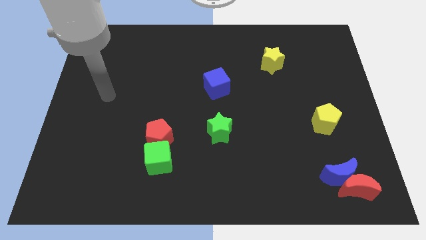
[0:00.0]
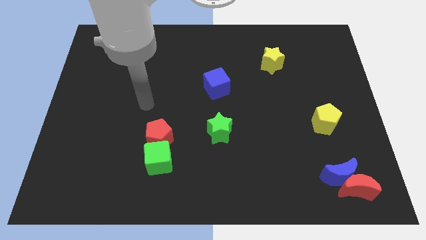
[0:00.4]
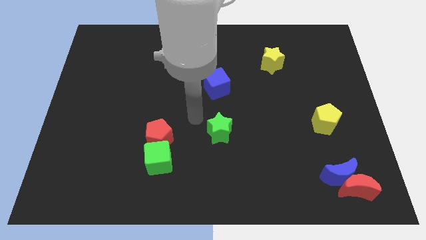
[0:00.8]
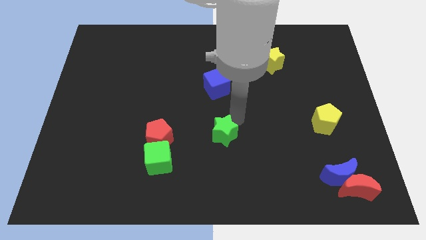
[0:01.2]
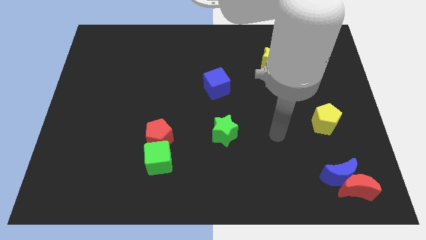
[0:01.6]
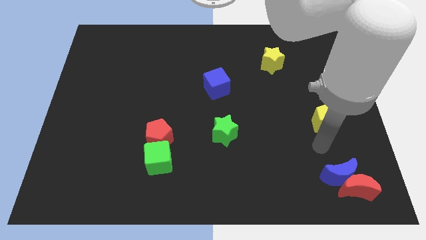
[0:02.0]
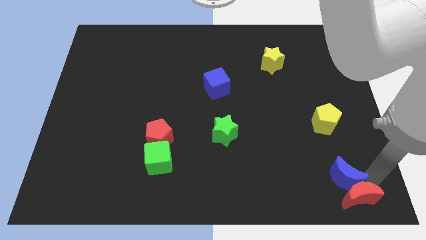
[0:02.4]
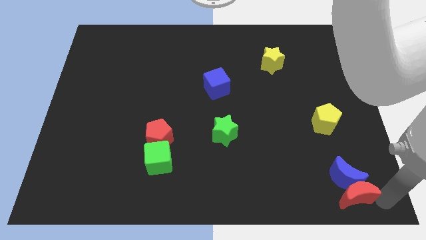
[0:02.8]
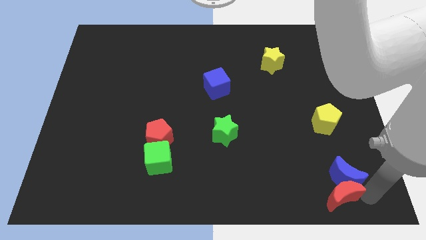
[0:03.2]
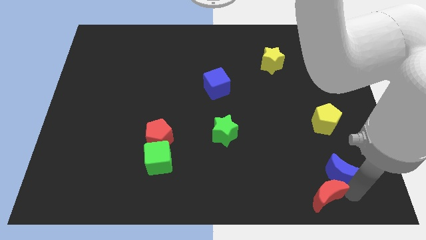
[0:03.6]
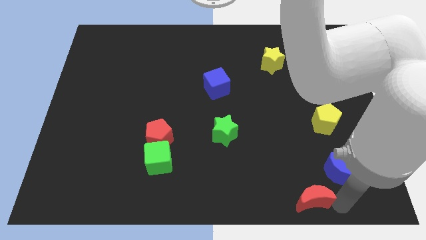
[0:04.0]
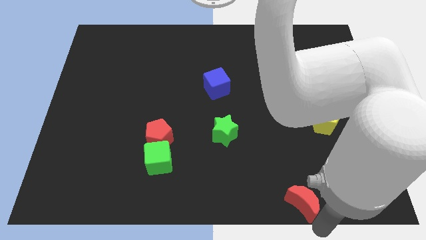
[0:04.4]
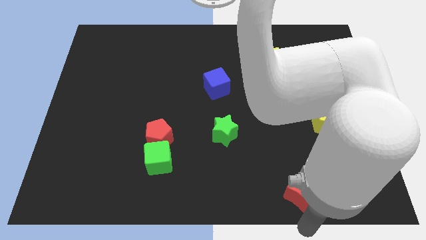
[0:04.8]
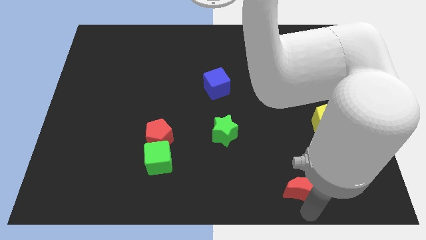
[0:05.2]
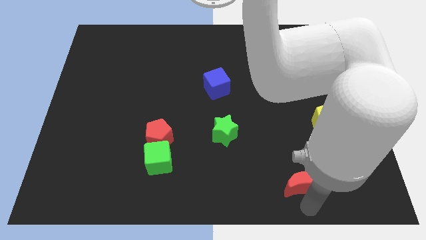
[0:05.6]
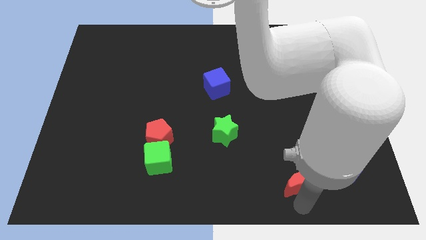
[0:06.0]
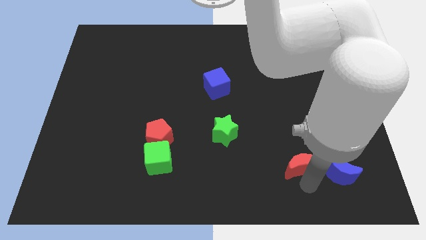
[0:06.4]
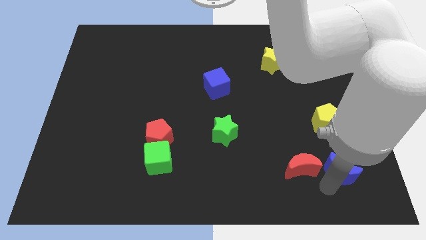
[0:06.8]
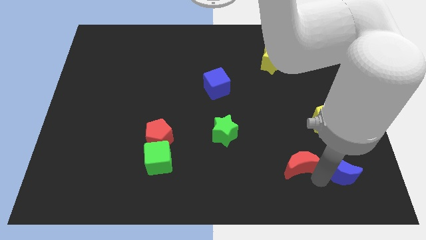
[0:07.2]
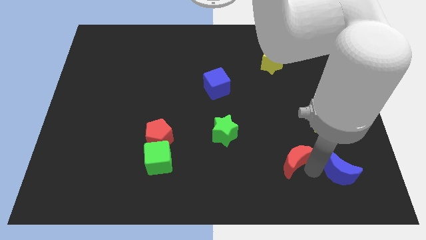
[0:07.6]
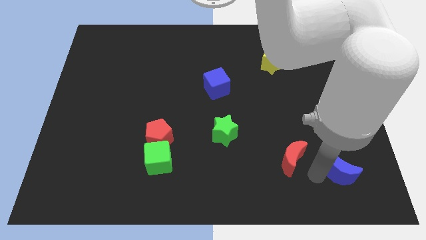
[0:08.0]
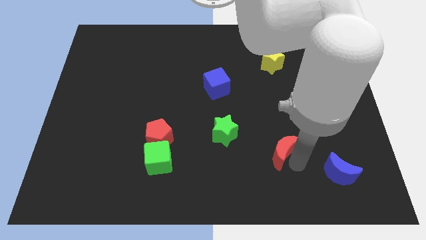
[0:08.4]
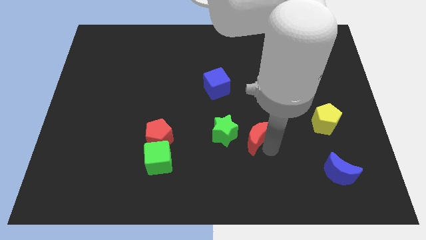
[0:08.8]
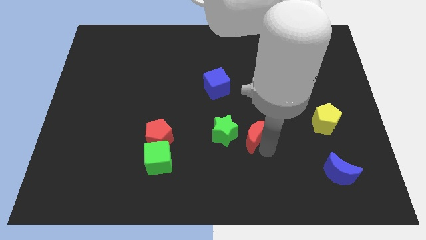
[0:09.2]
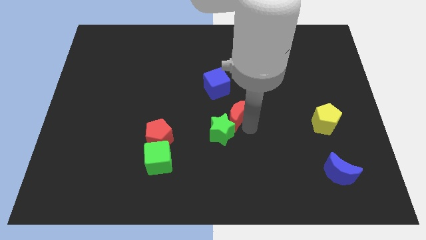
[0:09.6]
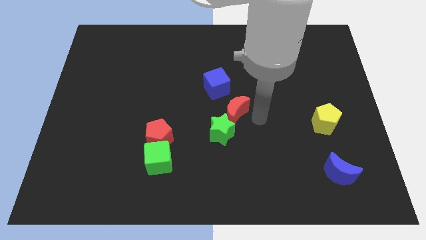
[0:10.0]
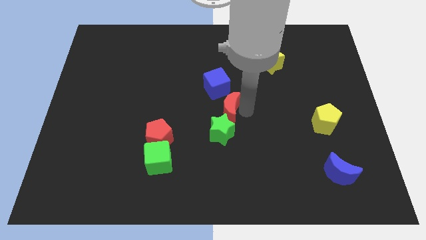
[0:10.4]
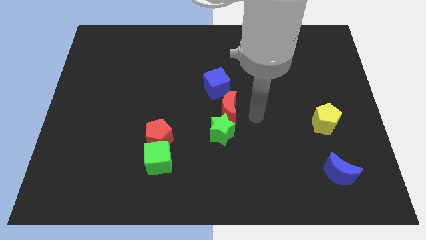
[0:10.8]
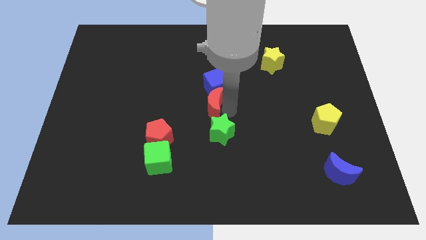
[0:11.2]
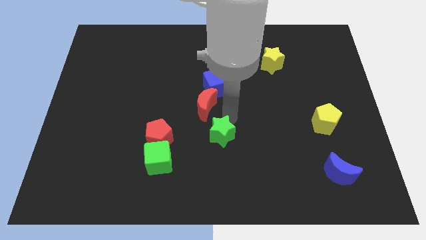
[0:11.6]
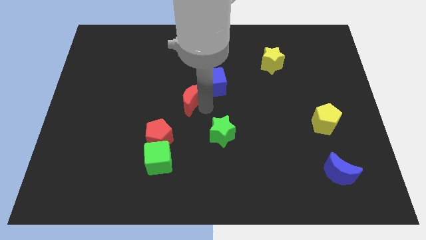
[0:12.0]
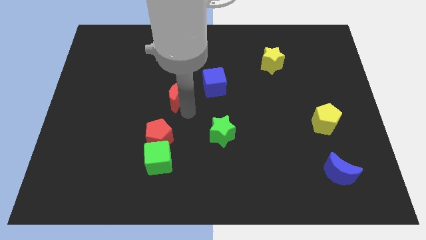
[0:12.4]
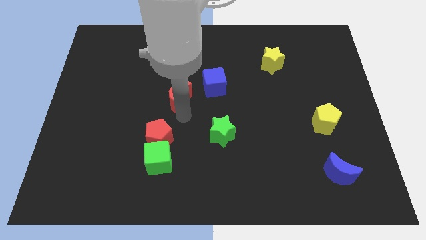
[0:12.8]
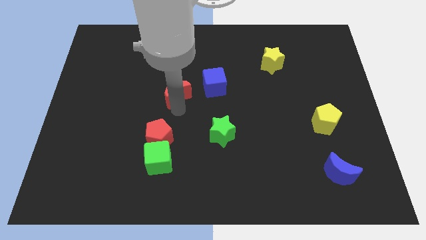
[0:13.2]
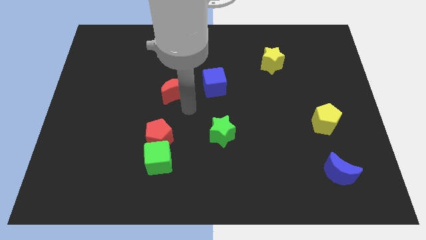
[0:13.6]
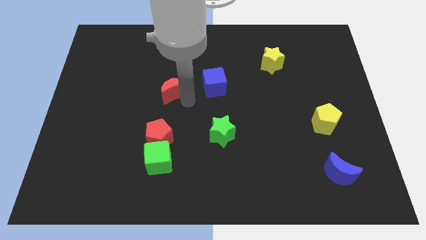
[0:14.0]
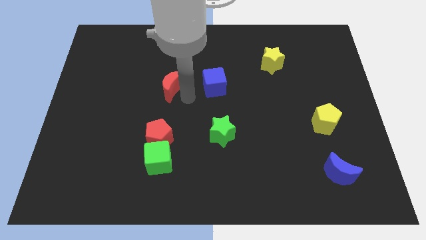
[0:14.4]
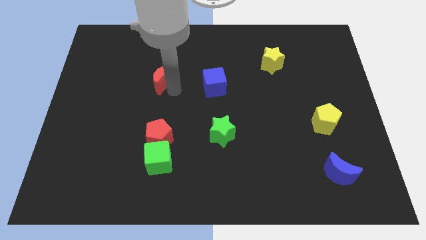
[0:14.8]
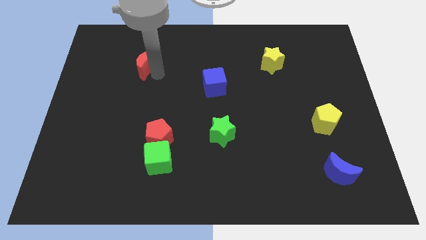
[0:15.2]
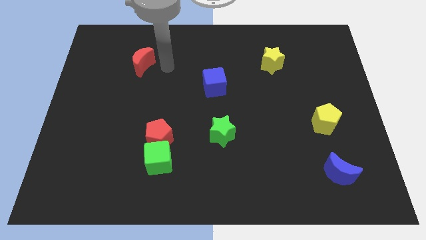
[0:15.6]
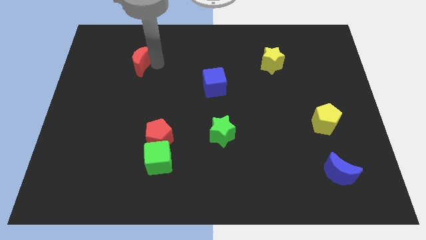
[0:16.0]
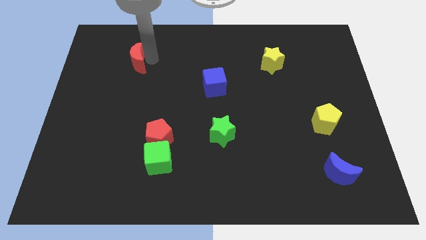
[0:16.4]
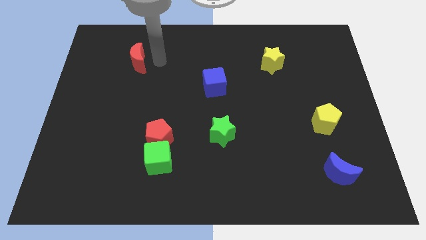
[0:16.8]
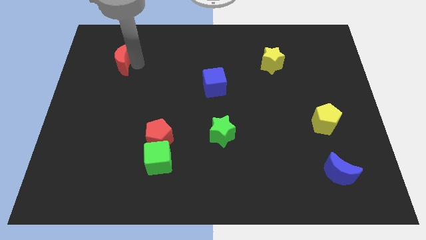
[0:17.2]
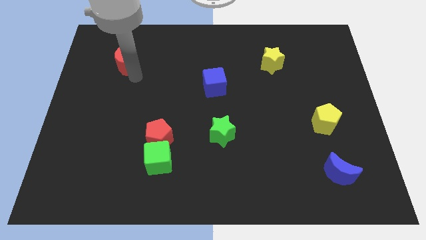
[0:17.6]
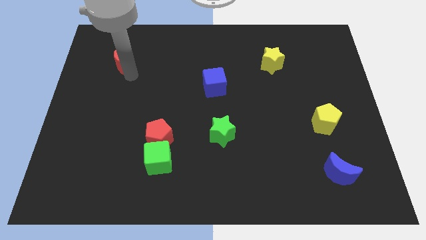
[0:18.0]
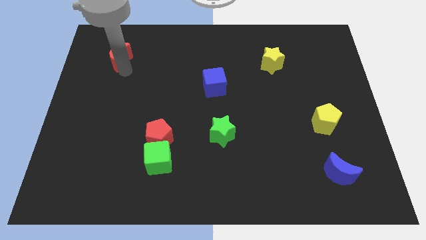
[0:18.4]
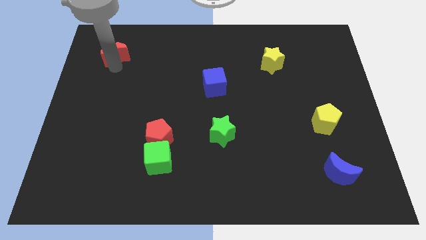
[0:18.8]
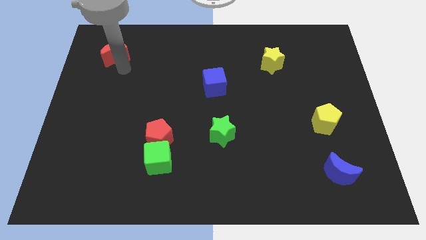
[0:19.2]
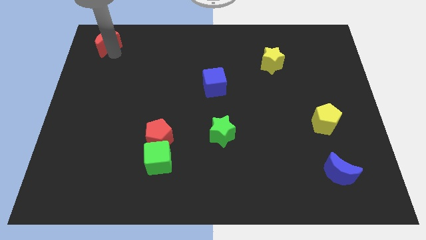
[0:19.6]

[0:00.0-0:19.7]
slide the red moon to the top left of the board

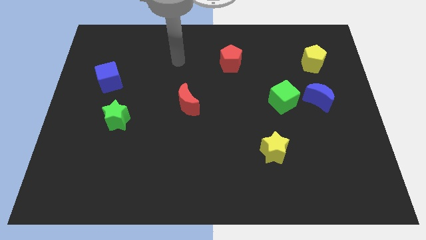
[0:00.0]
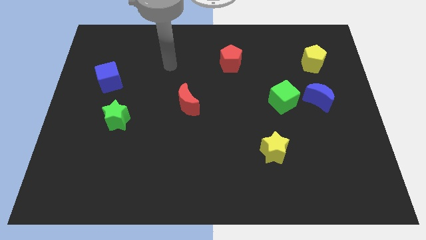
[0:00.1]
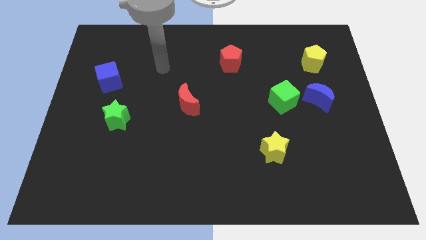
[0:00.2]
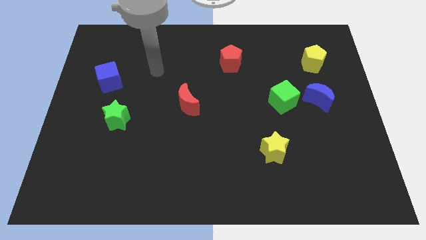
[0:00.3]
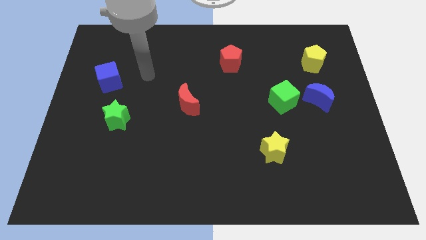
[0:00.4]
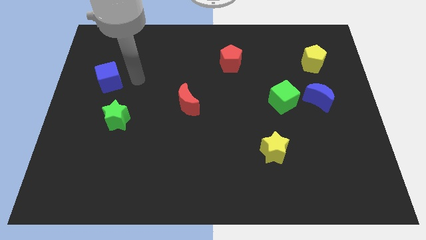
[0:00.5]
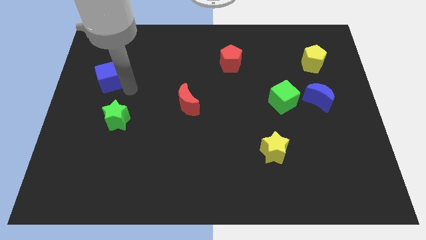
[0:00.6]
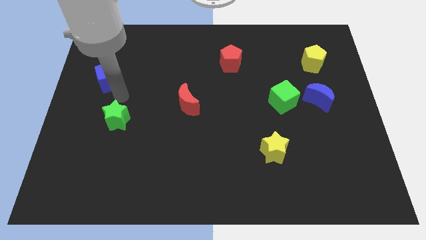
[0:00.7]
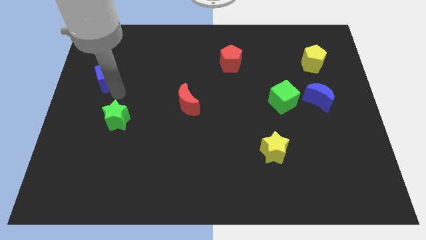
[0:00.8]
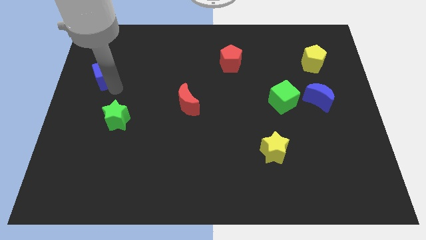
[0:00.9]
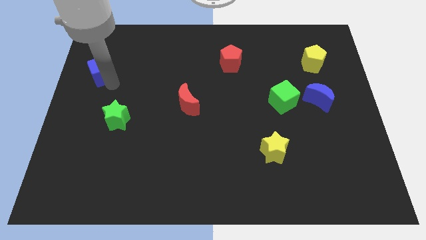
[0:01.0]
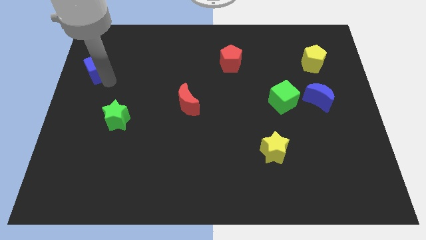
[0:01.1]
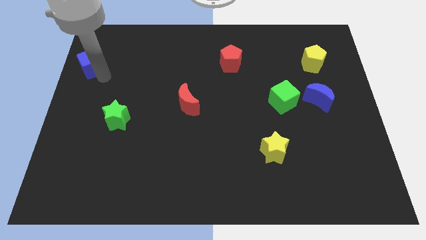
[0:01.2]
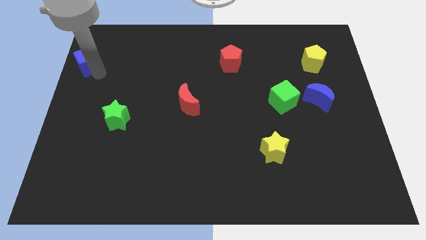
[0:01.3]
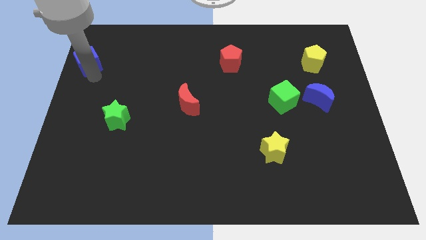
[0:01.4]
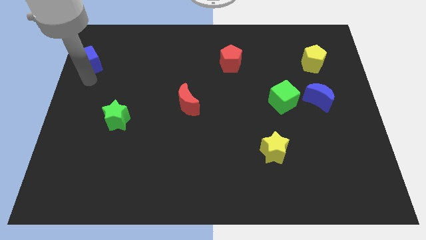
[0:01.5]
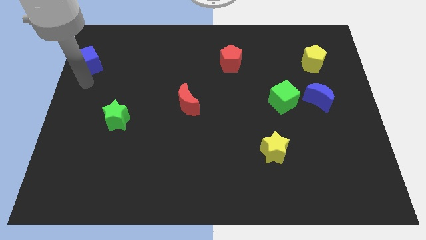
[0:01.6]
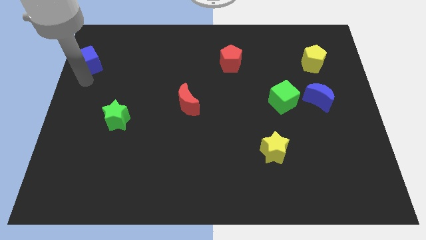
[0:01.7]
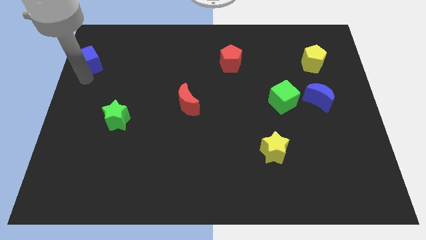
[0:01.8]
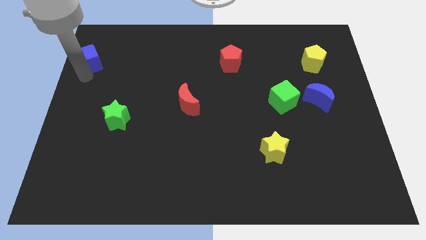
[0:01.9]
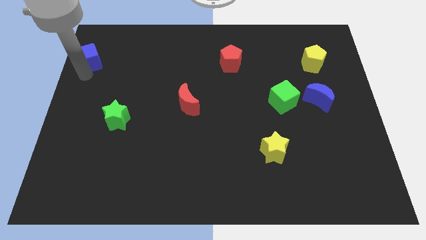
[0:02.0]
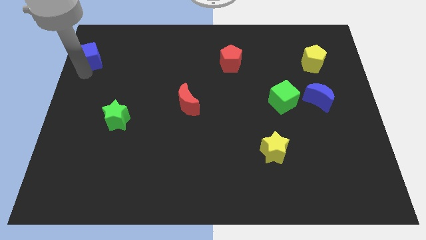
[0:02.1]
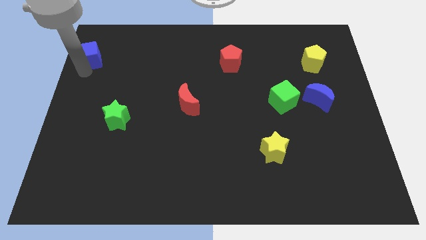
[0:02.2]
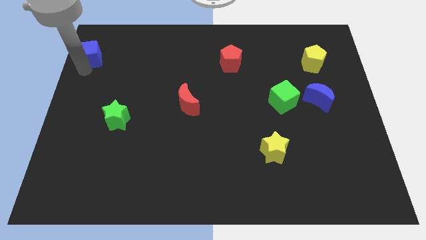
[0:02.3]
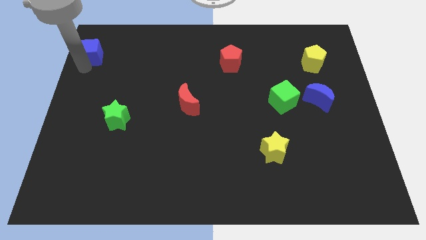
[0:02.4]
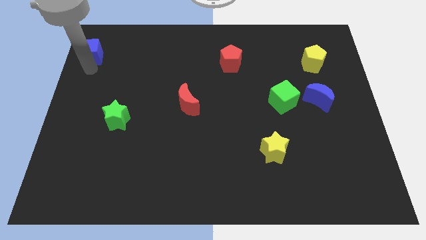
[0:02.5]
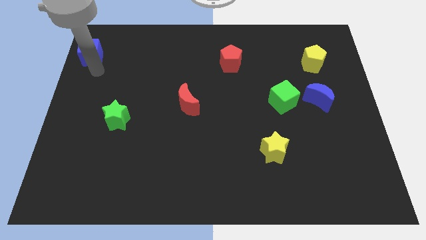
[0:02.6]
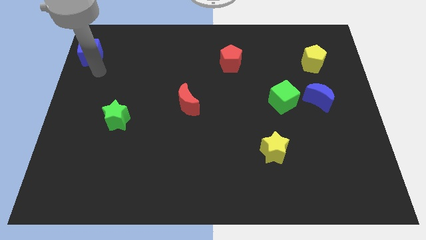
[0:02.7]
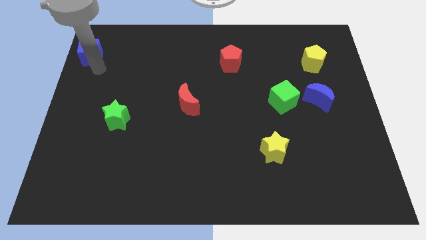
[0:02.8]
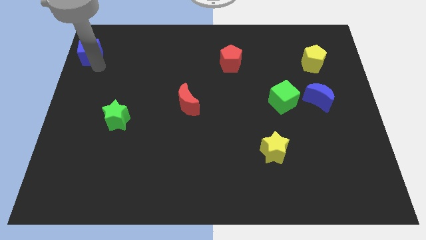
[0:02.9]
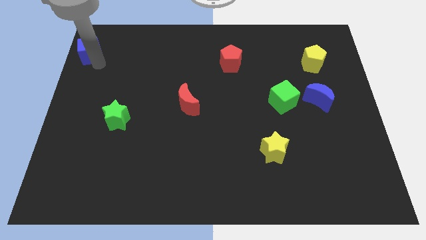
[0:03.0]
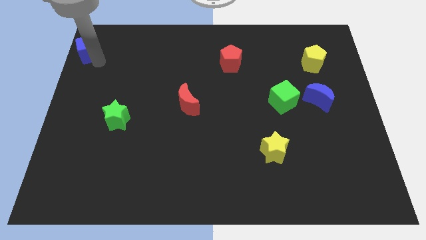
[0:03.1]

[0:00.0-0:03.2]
move the blue cube to the top left corner
